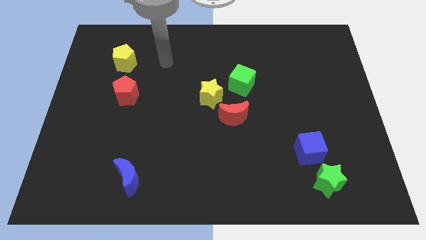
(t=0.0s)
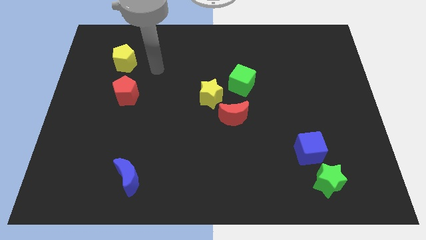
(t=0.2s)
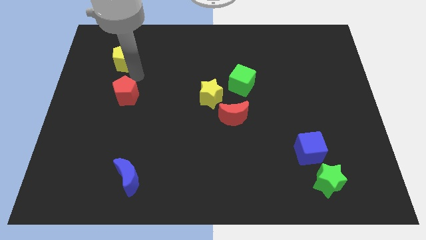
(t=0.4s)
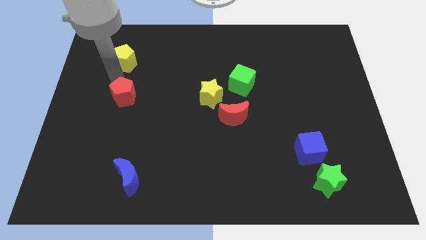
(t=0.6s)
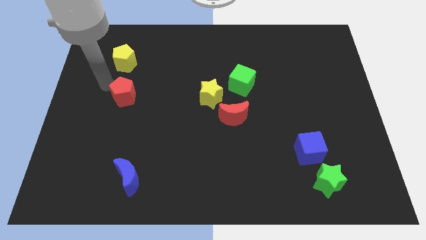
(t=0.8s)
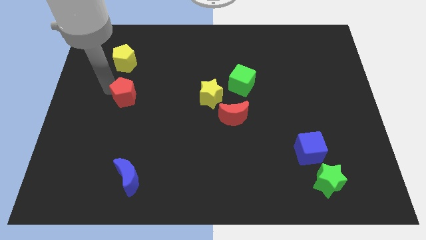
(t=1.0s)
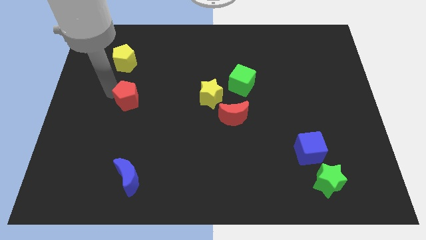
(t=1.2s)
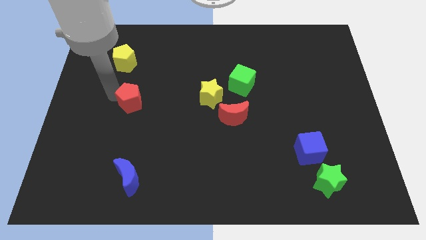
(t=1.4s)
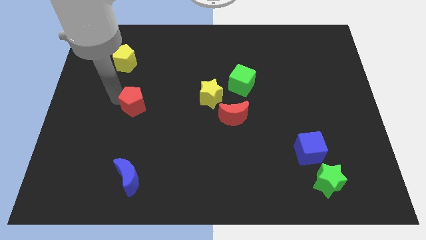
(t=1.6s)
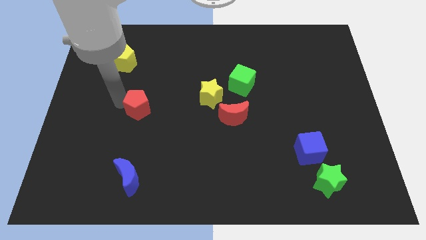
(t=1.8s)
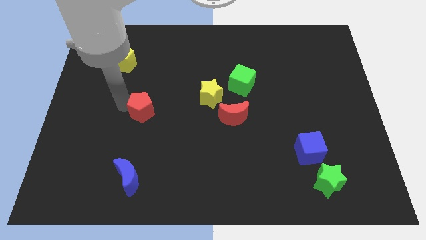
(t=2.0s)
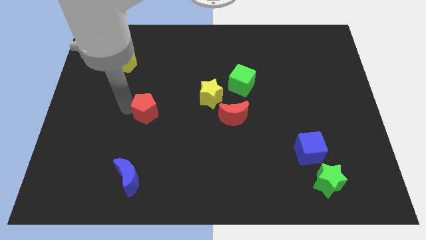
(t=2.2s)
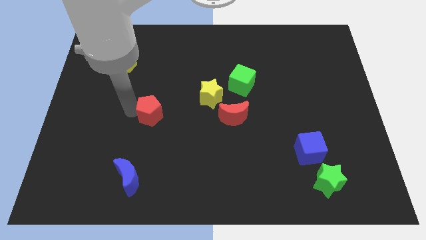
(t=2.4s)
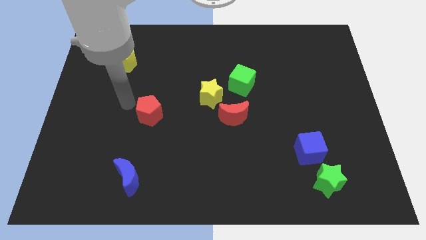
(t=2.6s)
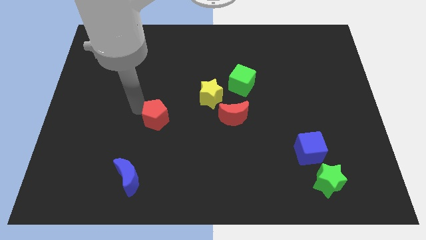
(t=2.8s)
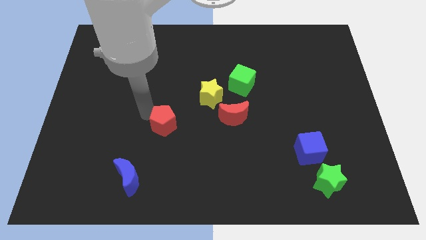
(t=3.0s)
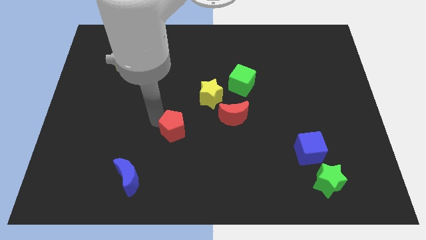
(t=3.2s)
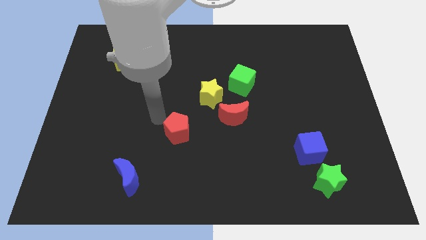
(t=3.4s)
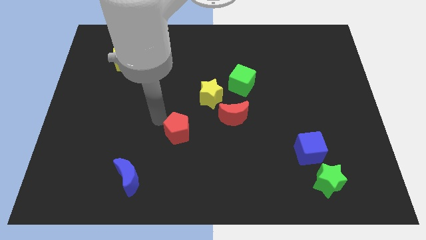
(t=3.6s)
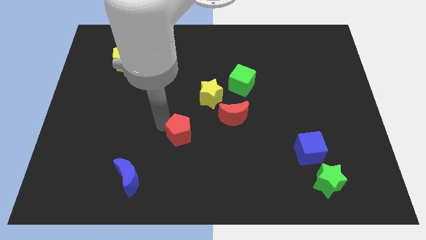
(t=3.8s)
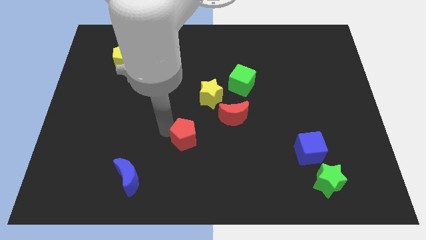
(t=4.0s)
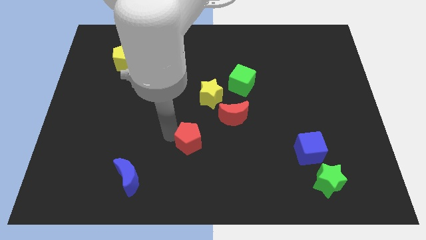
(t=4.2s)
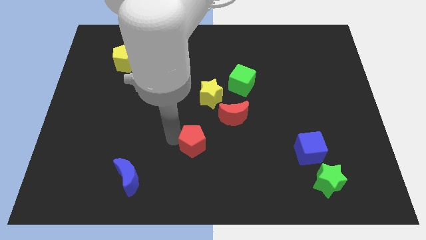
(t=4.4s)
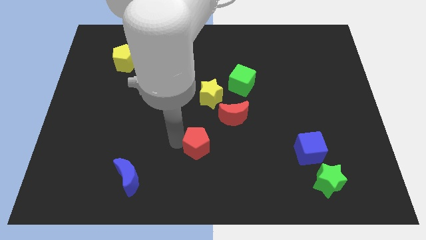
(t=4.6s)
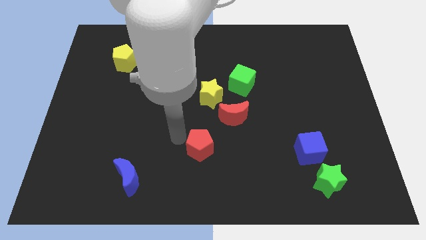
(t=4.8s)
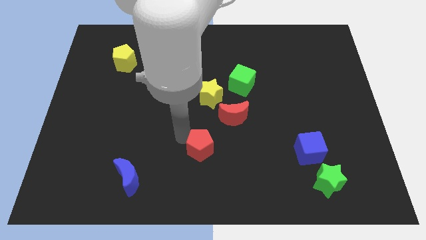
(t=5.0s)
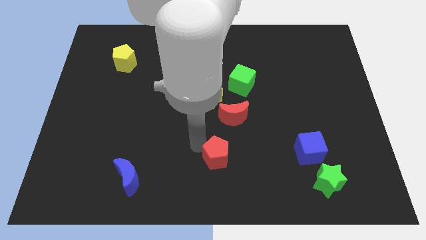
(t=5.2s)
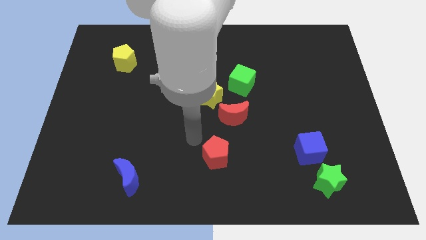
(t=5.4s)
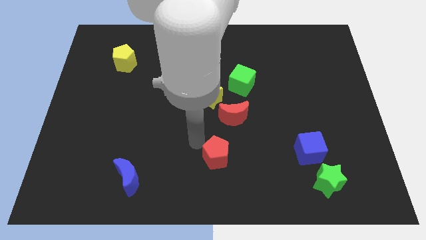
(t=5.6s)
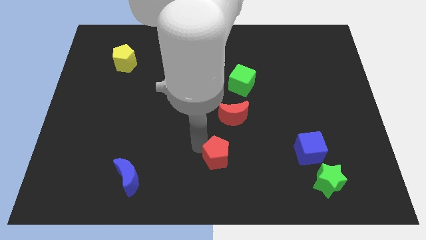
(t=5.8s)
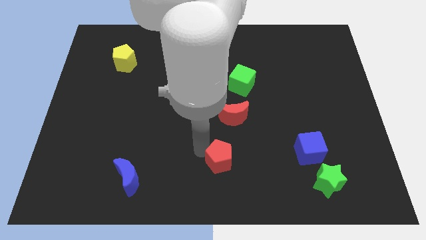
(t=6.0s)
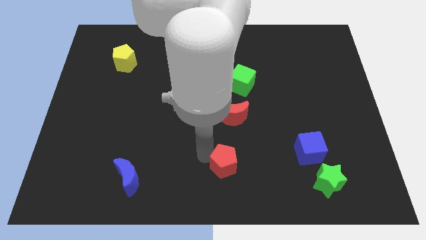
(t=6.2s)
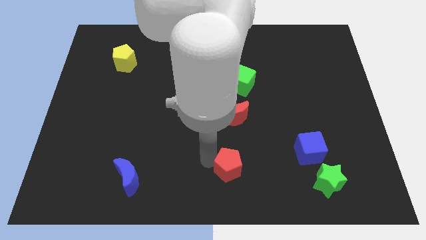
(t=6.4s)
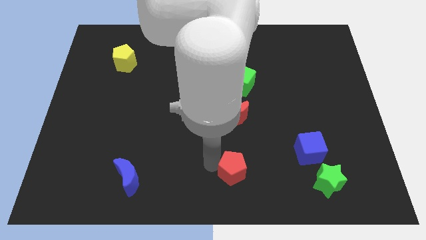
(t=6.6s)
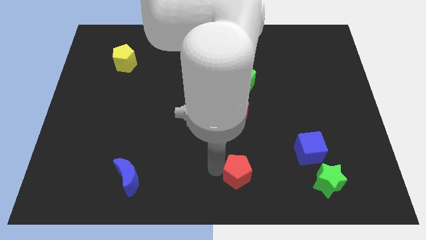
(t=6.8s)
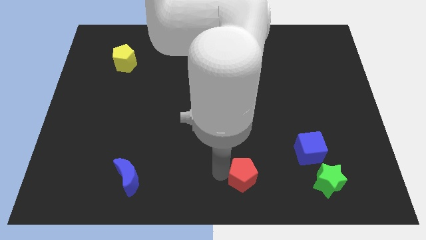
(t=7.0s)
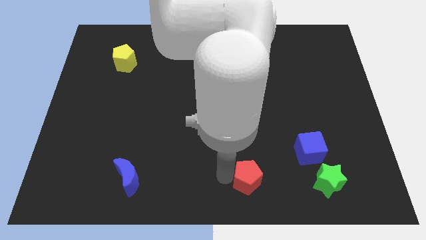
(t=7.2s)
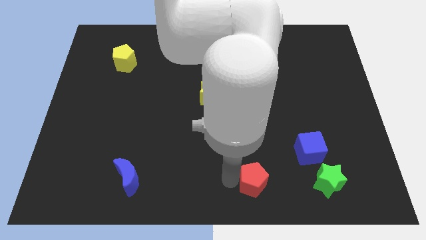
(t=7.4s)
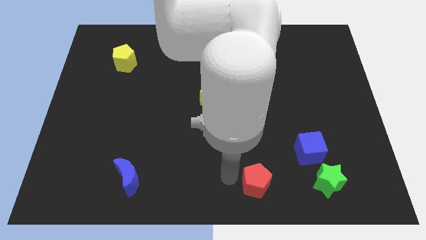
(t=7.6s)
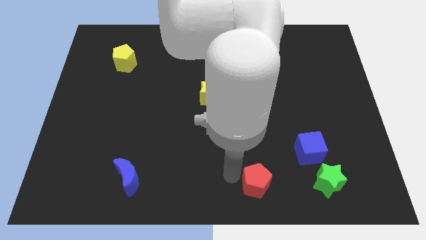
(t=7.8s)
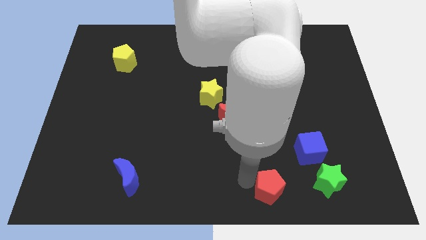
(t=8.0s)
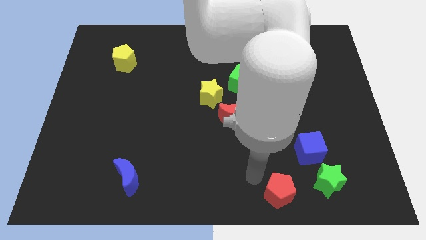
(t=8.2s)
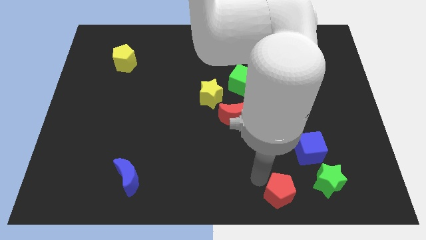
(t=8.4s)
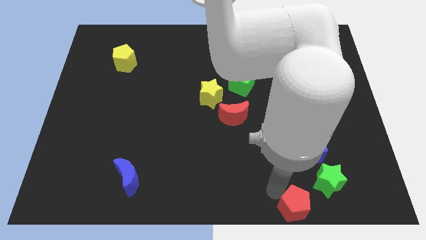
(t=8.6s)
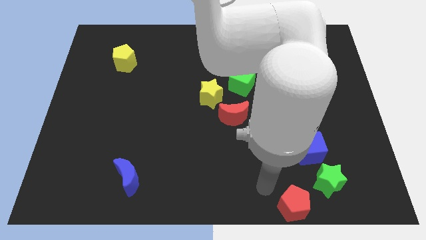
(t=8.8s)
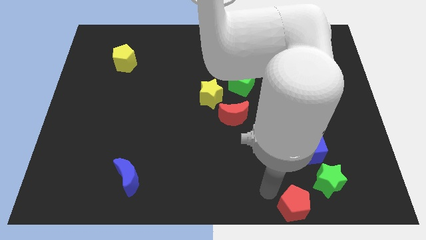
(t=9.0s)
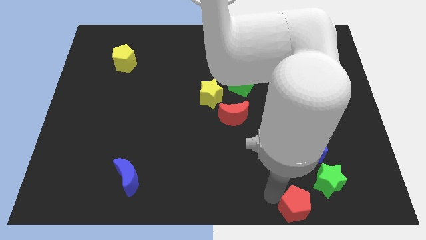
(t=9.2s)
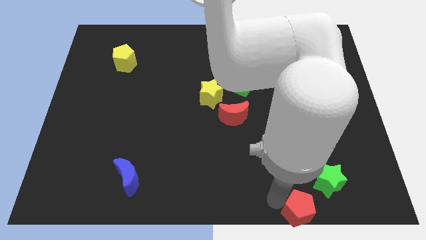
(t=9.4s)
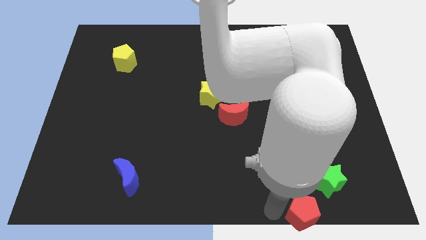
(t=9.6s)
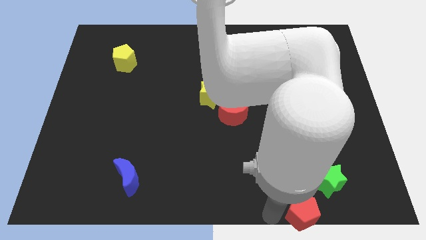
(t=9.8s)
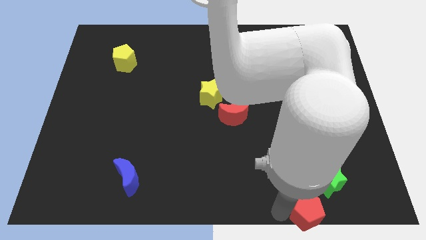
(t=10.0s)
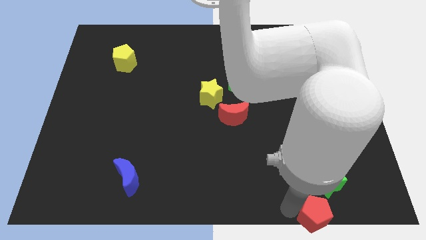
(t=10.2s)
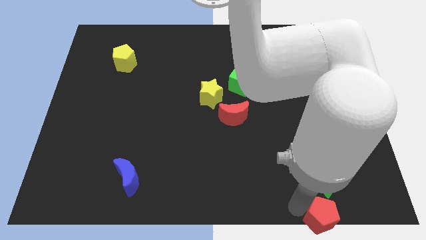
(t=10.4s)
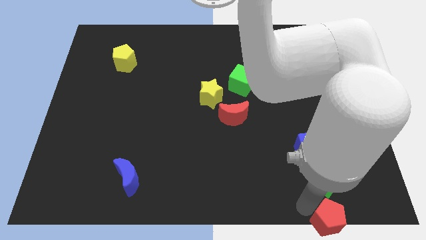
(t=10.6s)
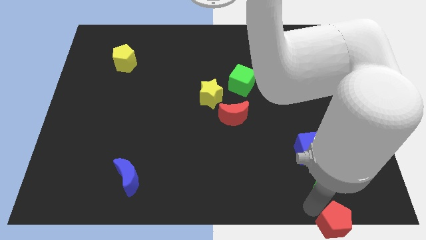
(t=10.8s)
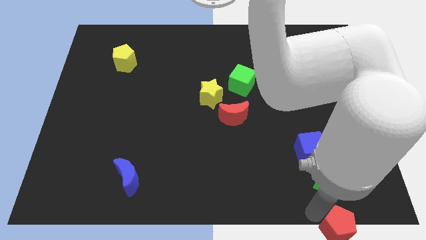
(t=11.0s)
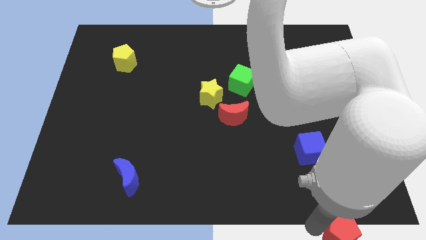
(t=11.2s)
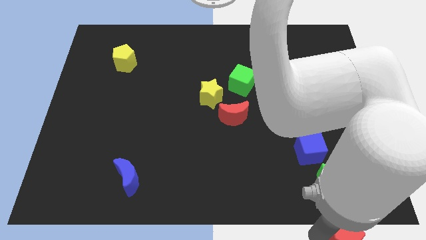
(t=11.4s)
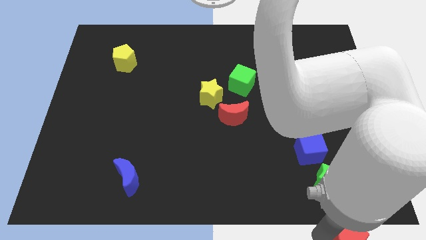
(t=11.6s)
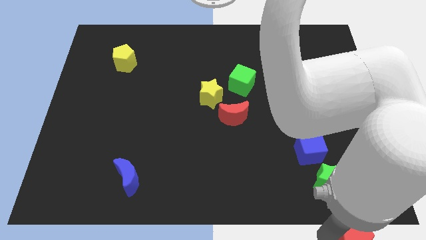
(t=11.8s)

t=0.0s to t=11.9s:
put the red pentagon to the lower right corner
